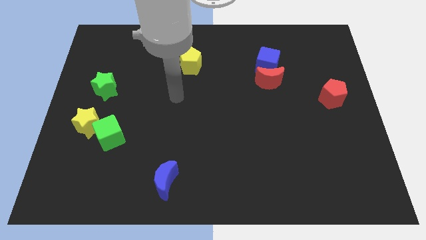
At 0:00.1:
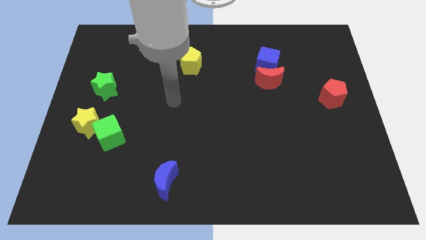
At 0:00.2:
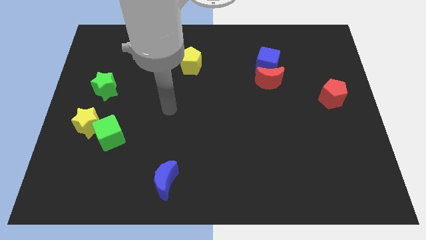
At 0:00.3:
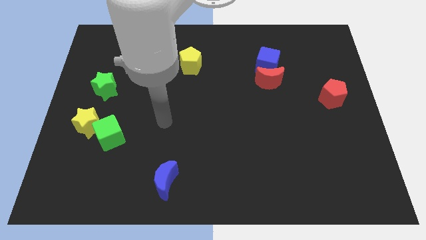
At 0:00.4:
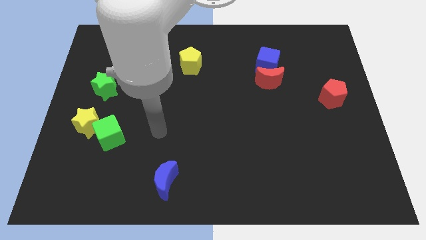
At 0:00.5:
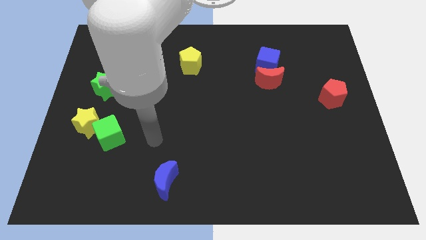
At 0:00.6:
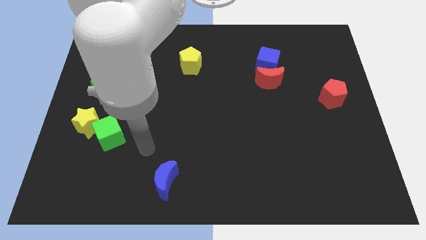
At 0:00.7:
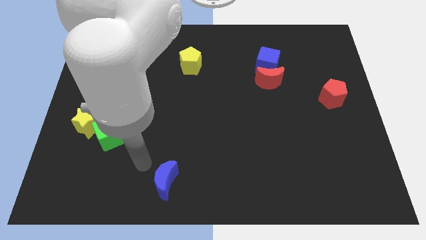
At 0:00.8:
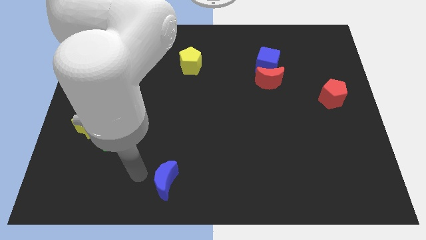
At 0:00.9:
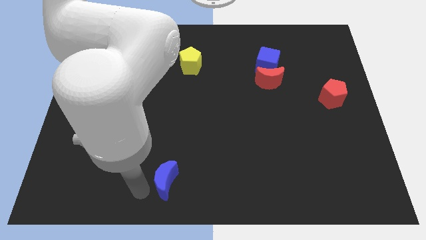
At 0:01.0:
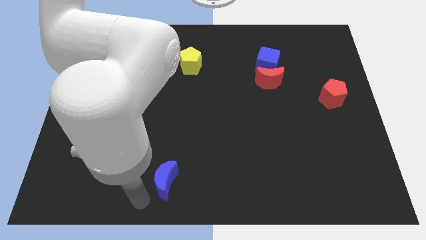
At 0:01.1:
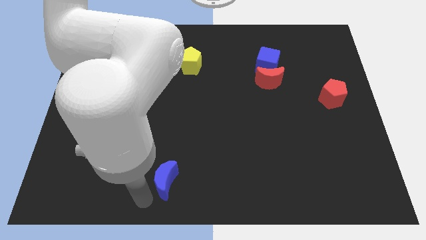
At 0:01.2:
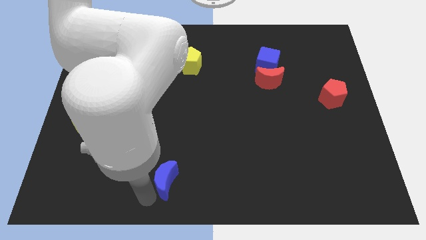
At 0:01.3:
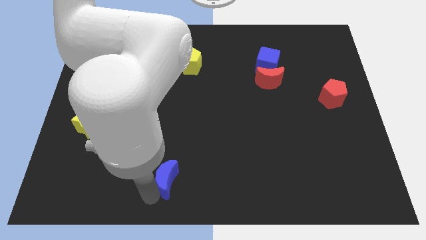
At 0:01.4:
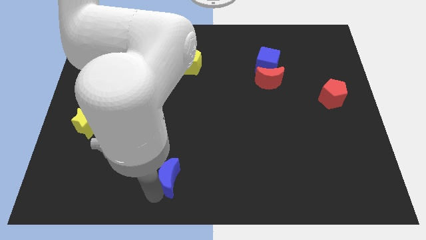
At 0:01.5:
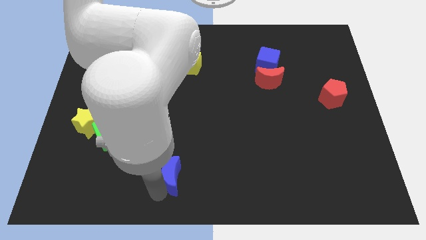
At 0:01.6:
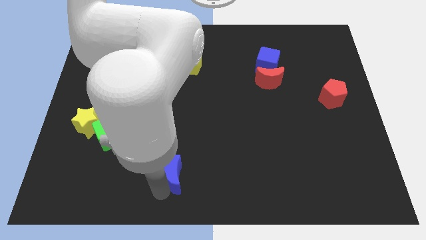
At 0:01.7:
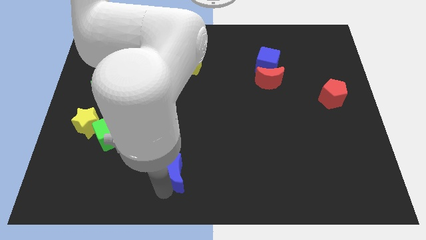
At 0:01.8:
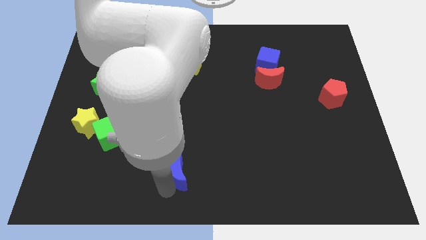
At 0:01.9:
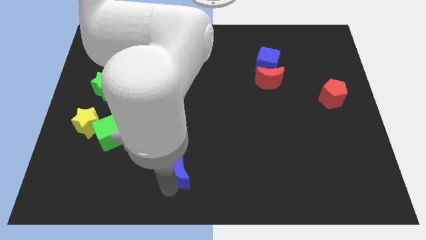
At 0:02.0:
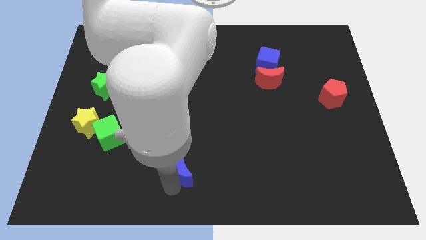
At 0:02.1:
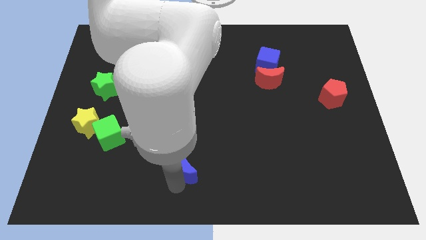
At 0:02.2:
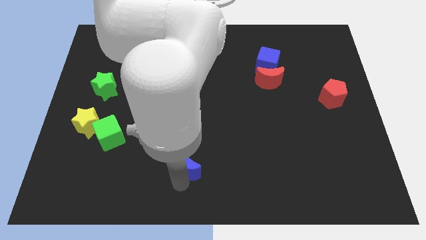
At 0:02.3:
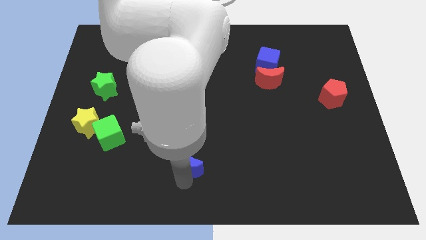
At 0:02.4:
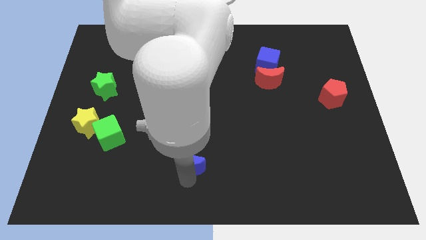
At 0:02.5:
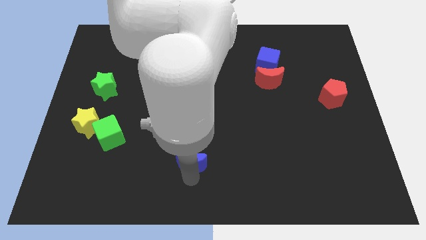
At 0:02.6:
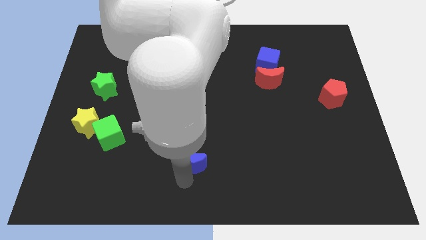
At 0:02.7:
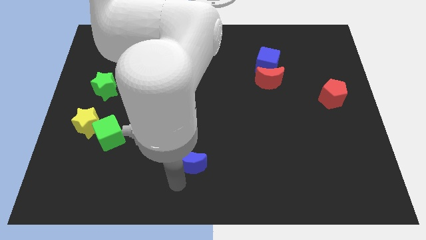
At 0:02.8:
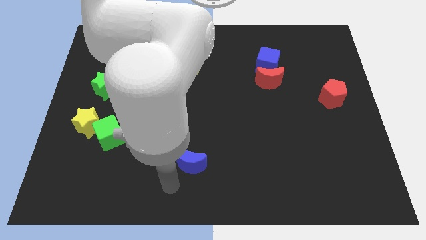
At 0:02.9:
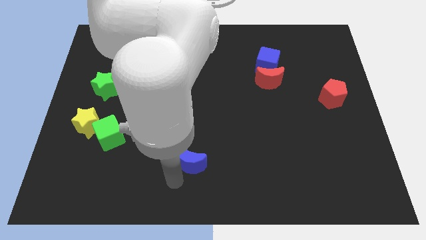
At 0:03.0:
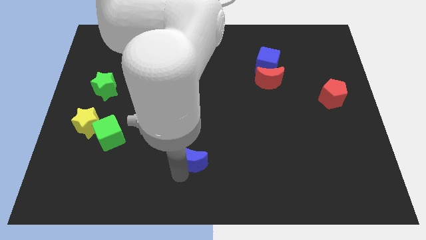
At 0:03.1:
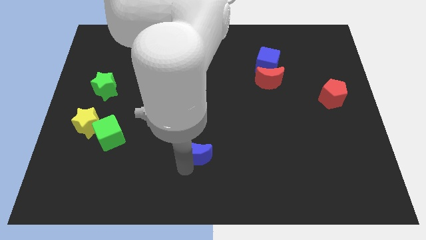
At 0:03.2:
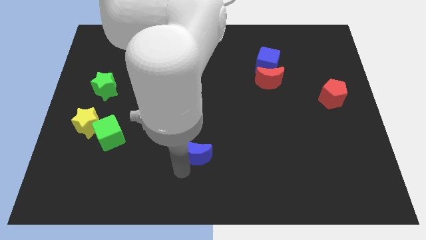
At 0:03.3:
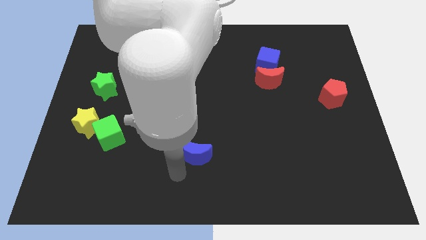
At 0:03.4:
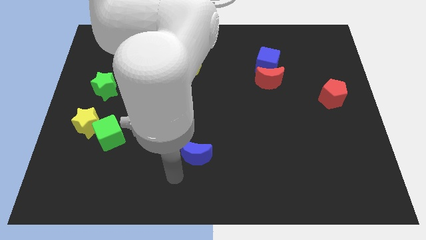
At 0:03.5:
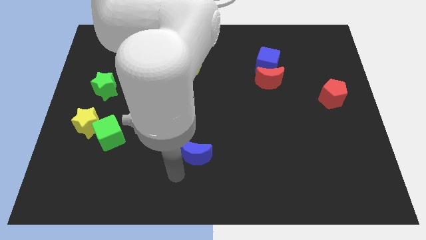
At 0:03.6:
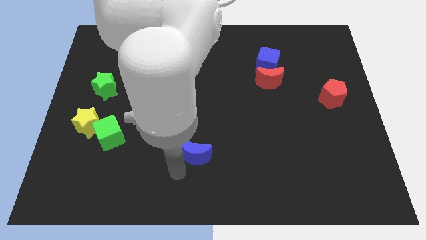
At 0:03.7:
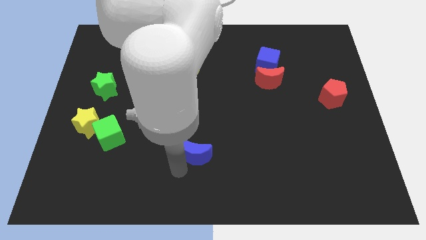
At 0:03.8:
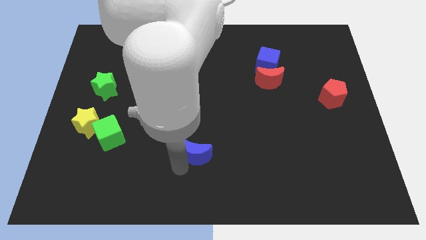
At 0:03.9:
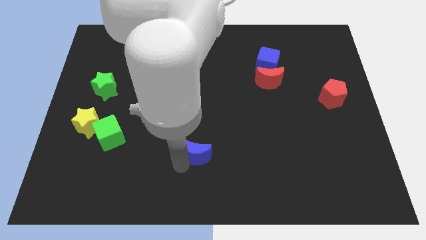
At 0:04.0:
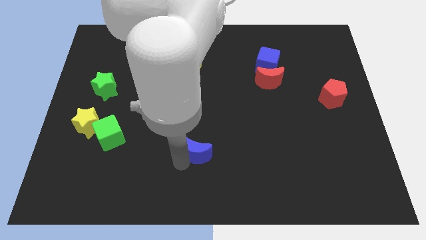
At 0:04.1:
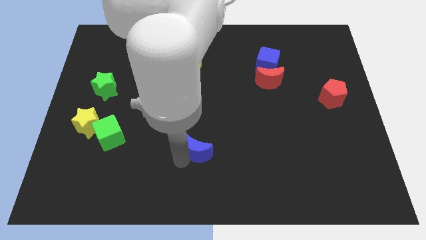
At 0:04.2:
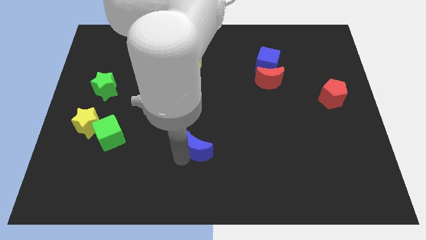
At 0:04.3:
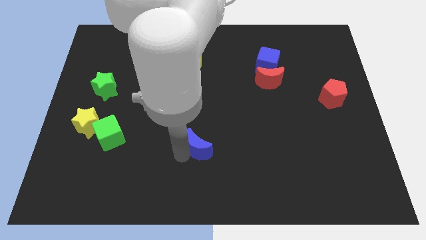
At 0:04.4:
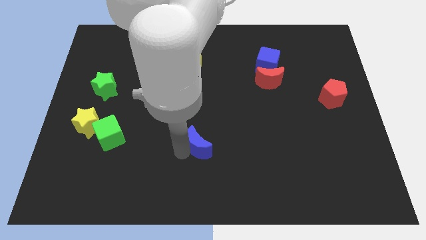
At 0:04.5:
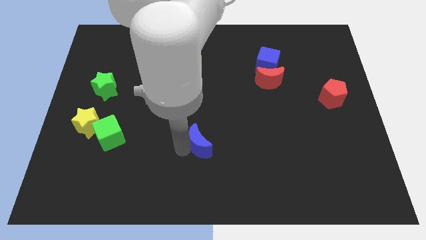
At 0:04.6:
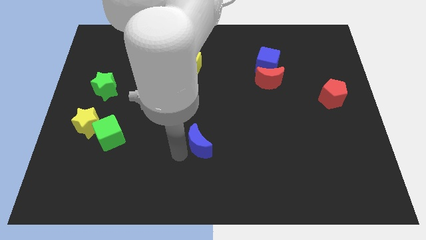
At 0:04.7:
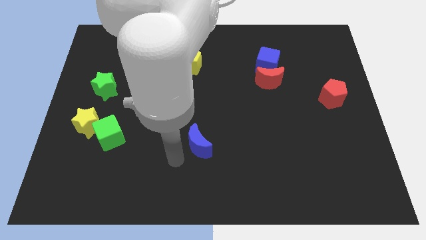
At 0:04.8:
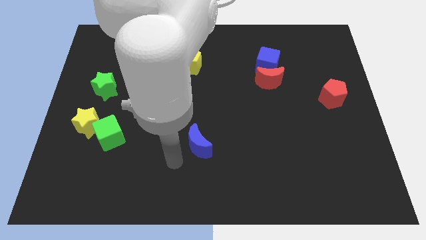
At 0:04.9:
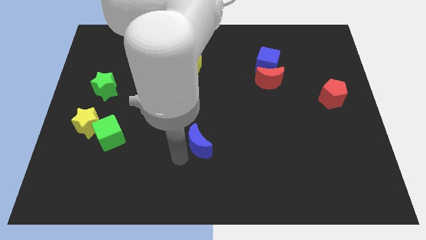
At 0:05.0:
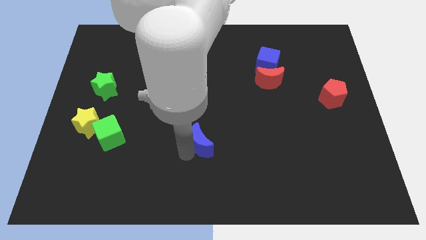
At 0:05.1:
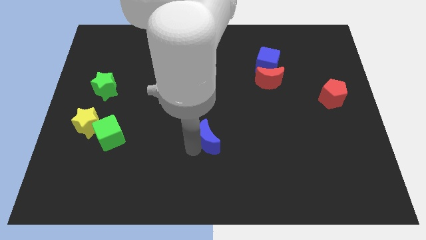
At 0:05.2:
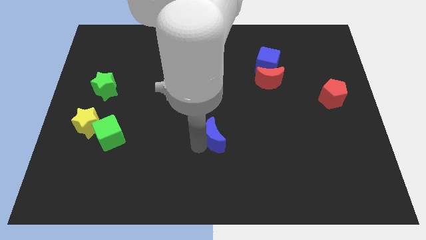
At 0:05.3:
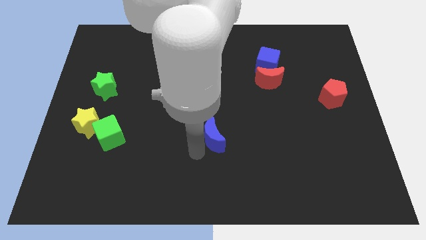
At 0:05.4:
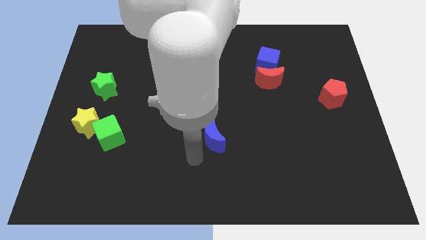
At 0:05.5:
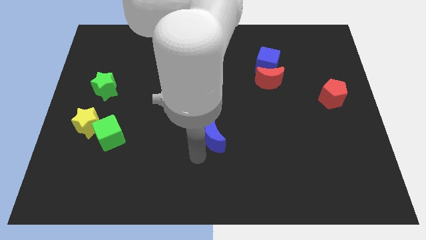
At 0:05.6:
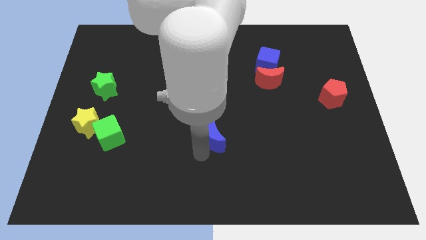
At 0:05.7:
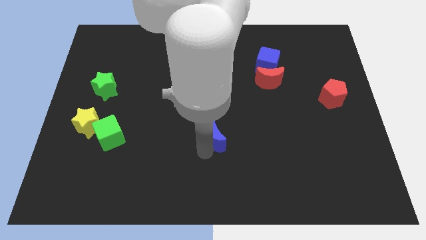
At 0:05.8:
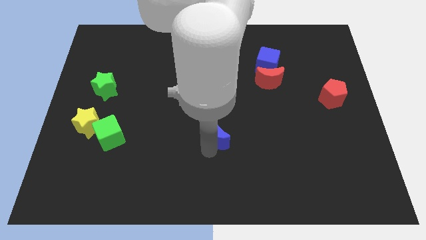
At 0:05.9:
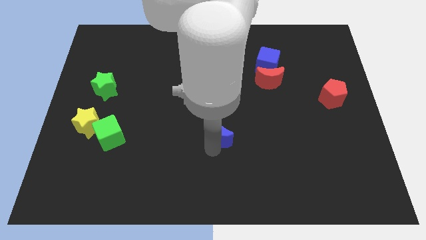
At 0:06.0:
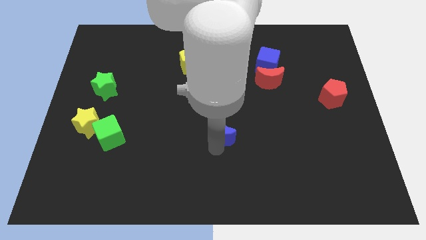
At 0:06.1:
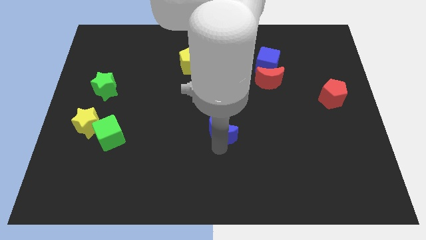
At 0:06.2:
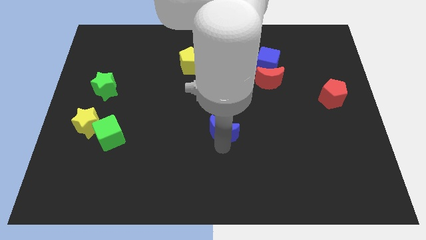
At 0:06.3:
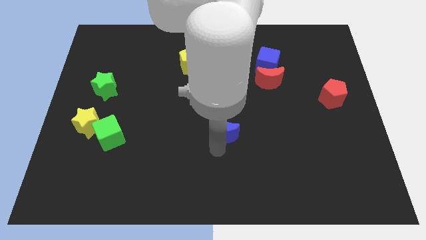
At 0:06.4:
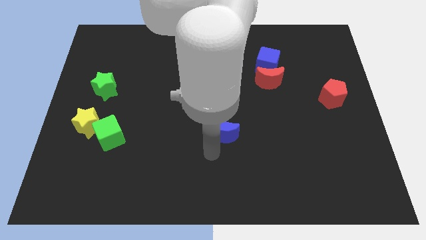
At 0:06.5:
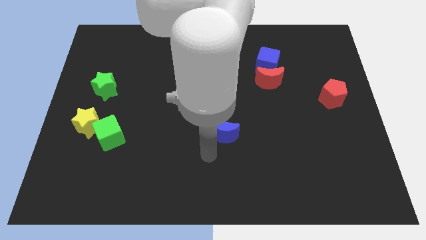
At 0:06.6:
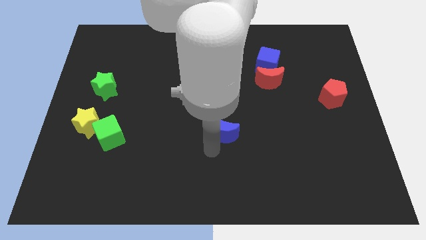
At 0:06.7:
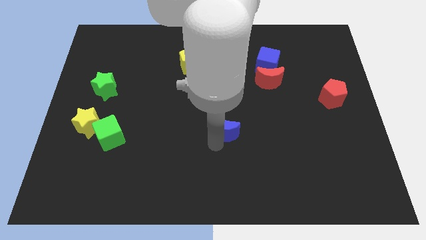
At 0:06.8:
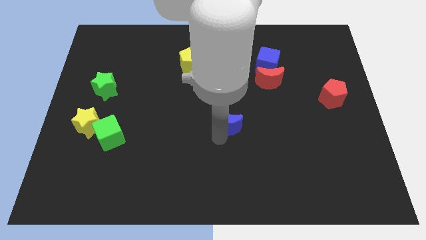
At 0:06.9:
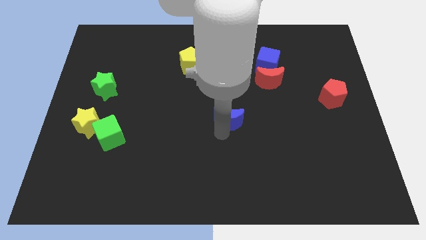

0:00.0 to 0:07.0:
push the blue moon upwards and then to the right

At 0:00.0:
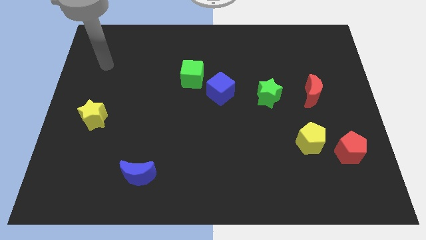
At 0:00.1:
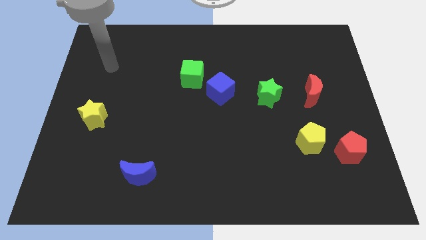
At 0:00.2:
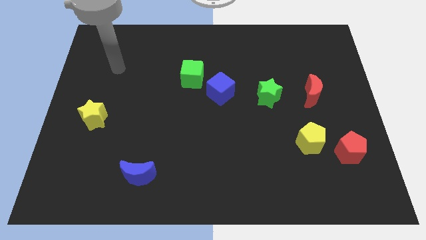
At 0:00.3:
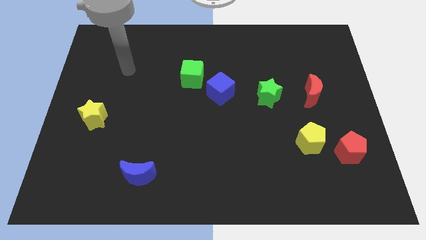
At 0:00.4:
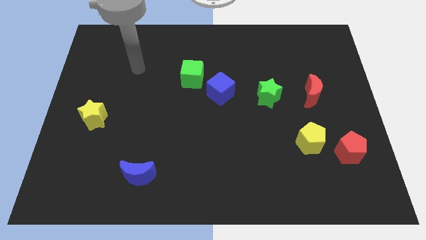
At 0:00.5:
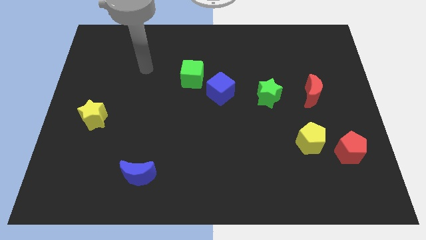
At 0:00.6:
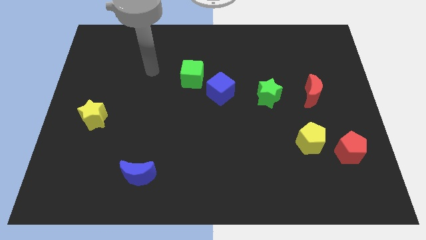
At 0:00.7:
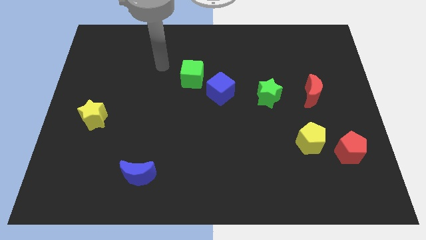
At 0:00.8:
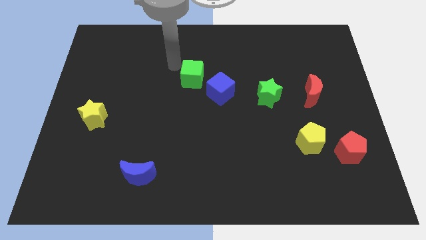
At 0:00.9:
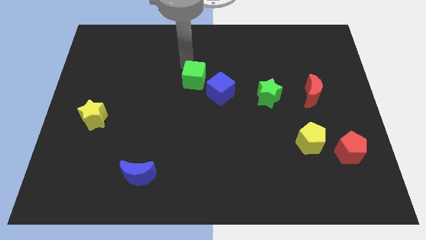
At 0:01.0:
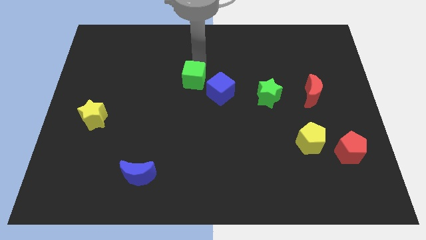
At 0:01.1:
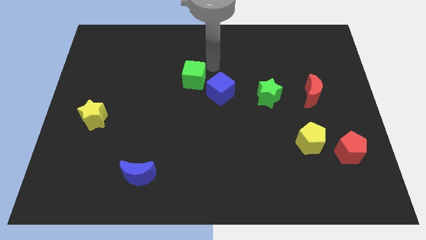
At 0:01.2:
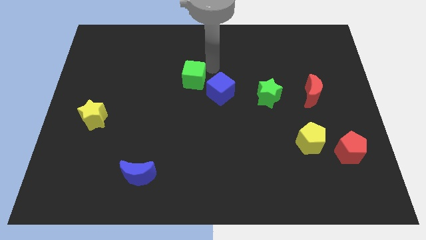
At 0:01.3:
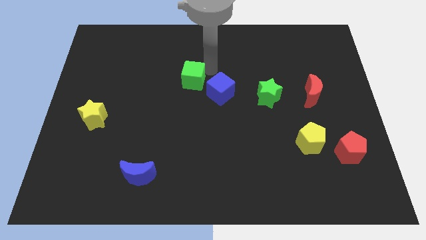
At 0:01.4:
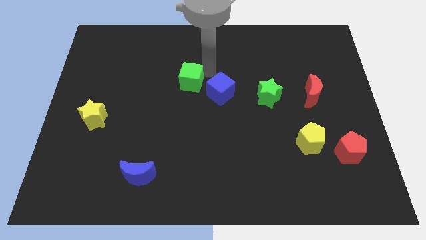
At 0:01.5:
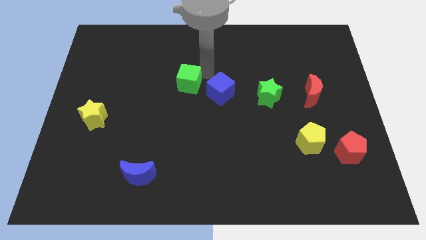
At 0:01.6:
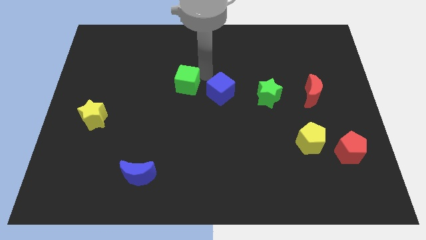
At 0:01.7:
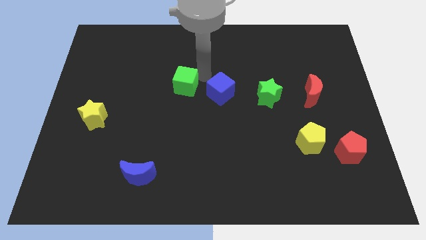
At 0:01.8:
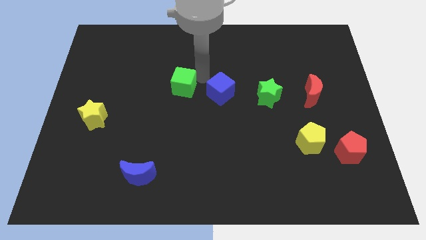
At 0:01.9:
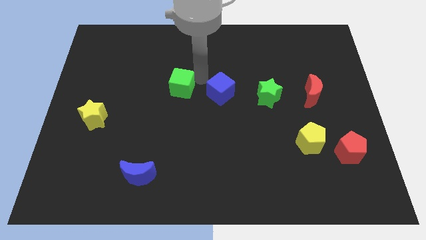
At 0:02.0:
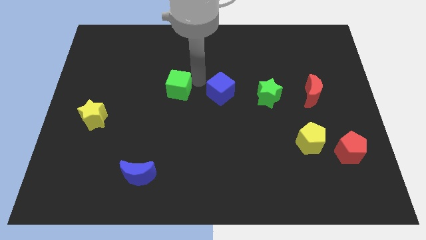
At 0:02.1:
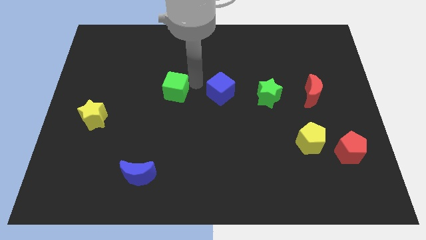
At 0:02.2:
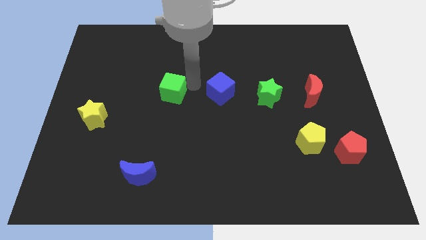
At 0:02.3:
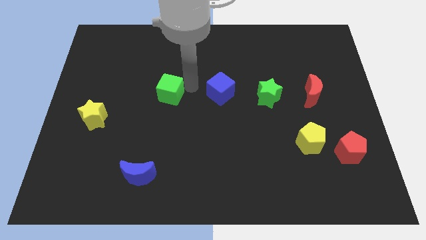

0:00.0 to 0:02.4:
push the green cube somewhat downwards and to the left diagonally
